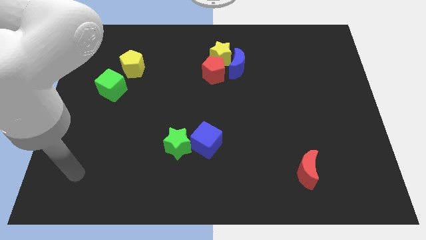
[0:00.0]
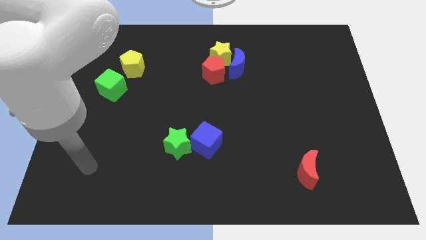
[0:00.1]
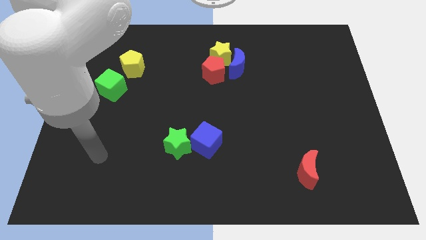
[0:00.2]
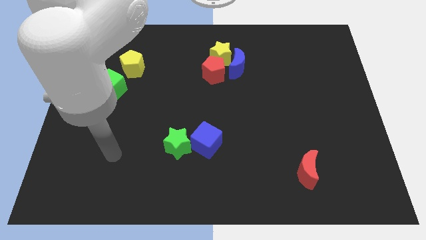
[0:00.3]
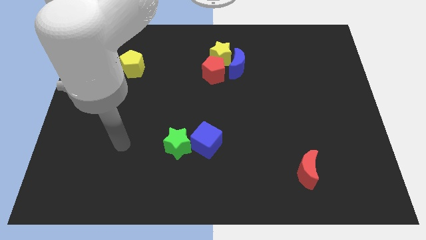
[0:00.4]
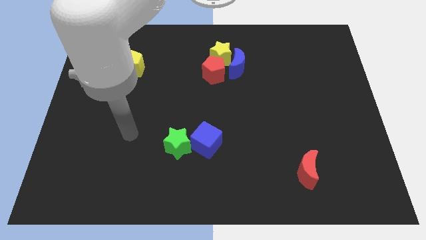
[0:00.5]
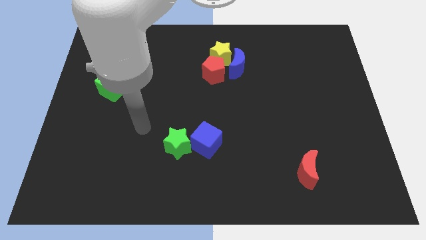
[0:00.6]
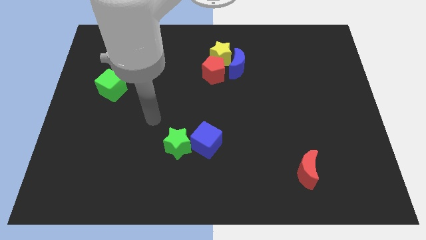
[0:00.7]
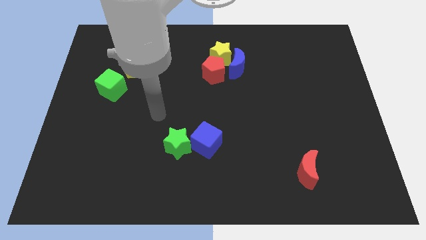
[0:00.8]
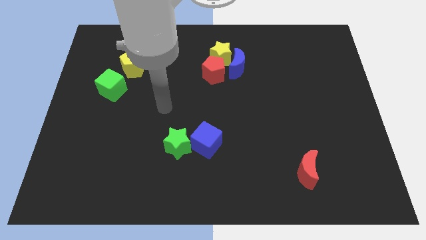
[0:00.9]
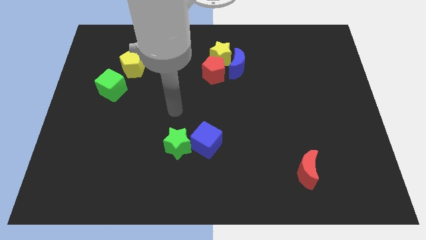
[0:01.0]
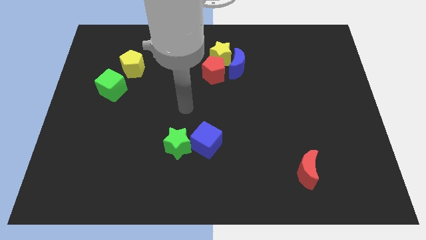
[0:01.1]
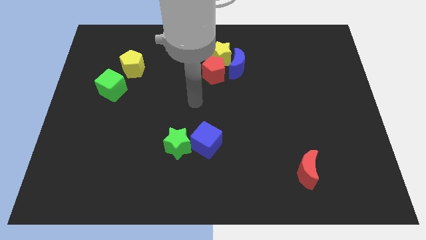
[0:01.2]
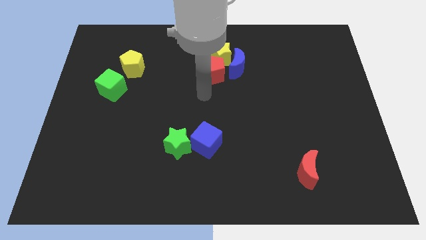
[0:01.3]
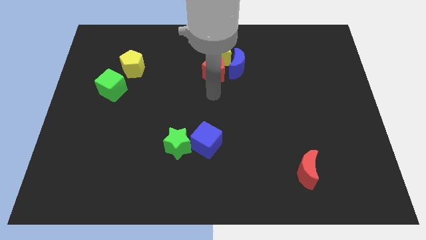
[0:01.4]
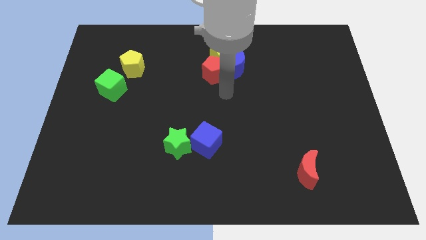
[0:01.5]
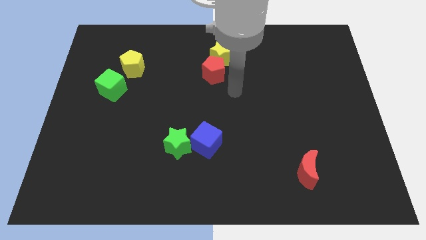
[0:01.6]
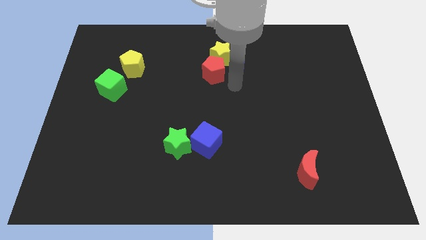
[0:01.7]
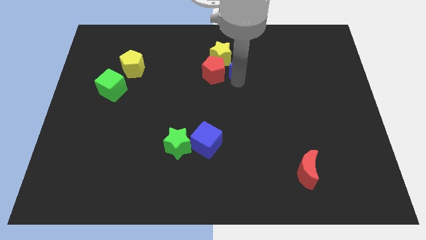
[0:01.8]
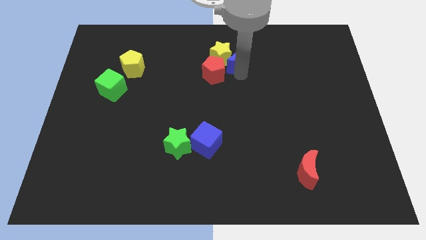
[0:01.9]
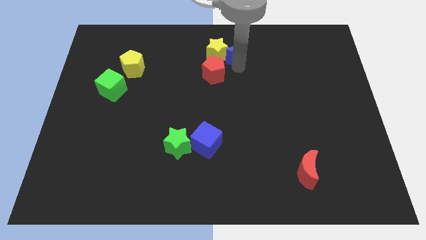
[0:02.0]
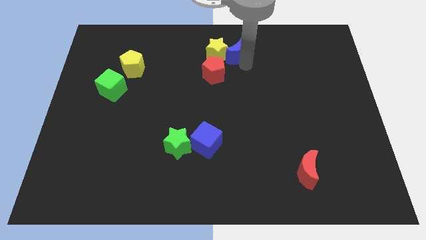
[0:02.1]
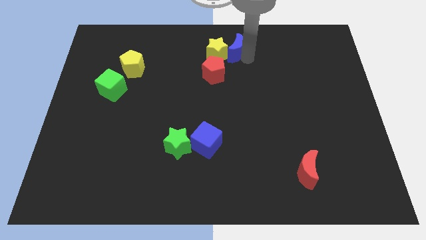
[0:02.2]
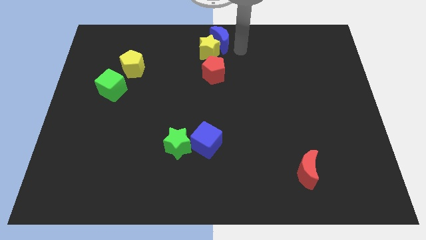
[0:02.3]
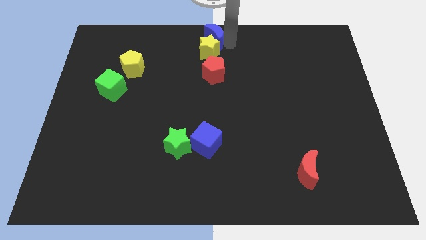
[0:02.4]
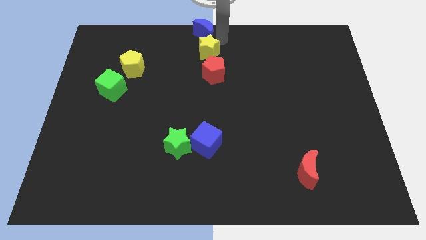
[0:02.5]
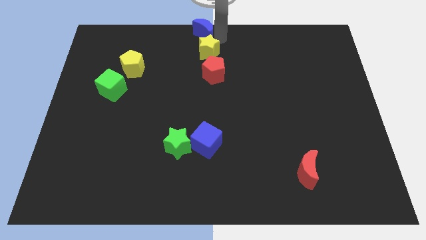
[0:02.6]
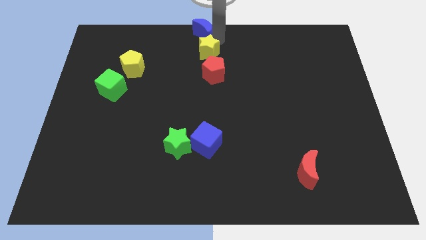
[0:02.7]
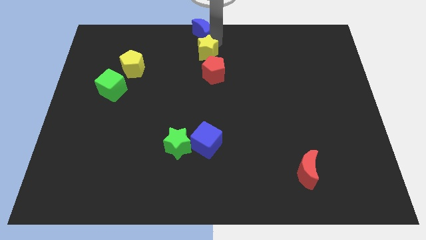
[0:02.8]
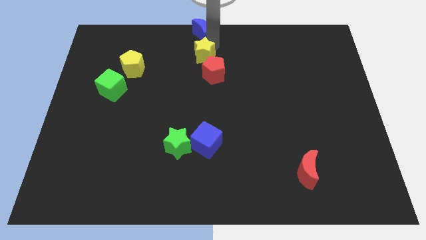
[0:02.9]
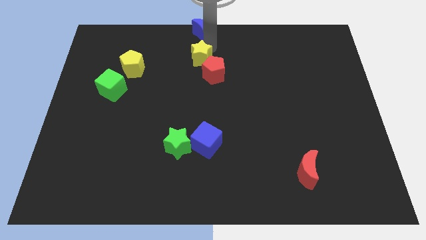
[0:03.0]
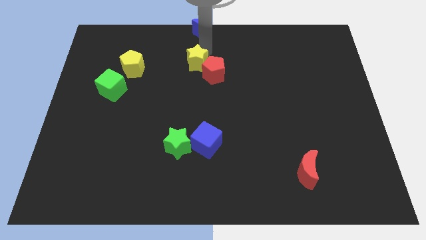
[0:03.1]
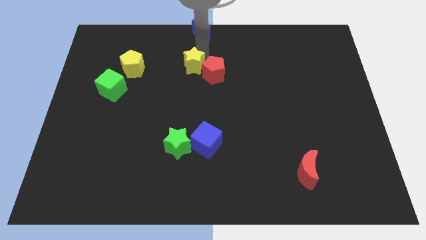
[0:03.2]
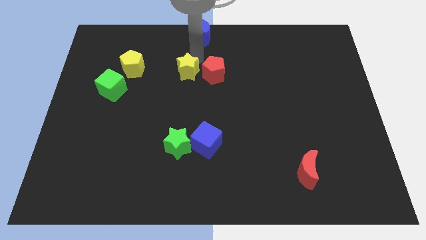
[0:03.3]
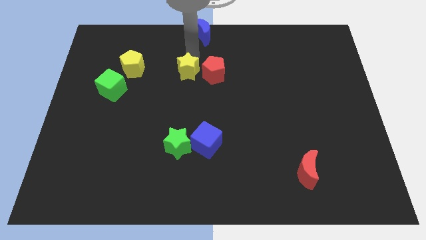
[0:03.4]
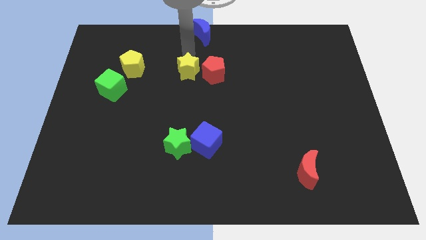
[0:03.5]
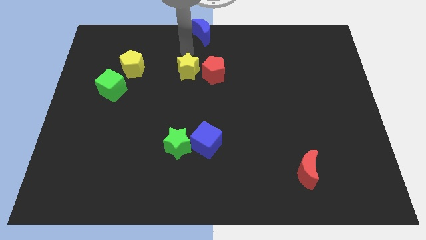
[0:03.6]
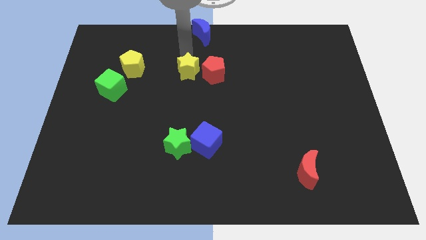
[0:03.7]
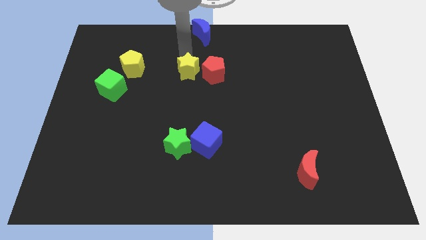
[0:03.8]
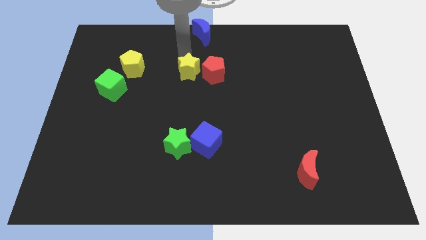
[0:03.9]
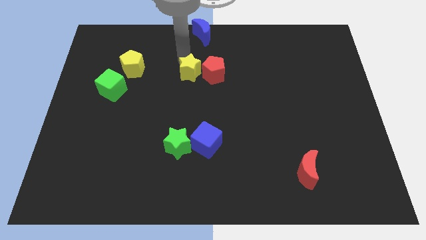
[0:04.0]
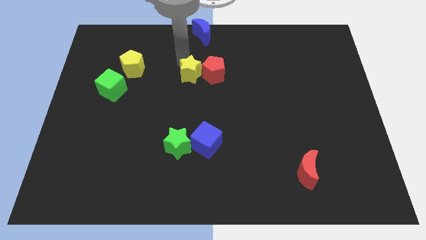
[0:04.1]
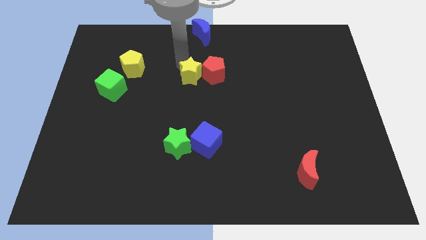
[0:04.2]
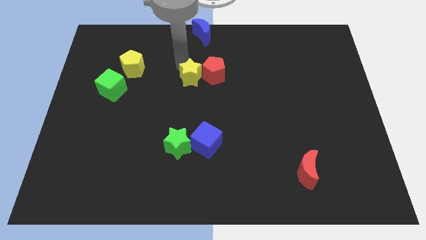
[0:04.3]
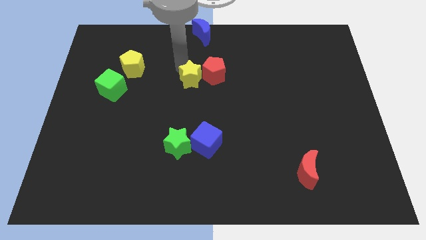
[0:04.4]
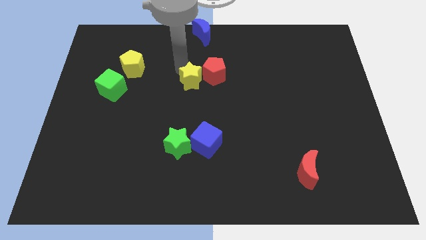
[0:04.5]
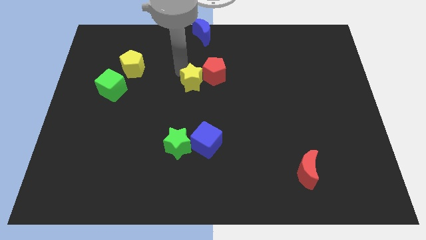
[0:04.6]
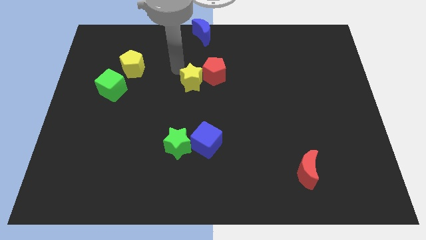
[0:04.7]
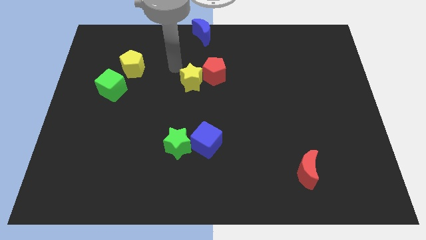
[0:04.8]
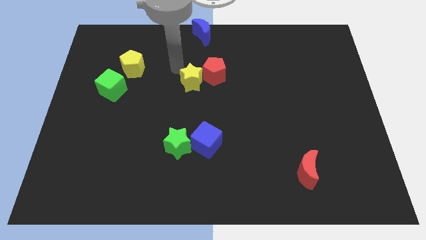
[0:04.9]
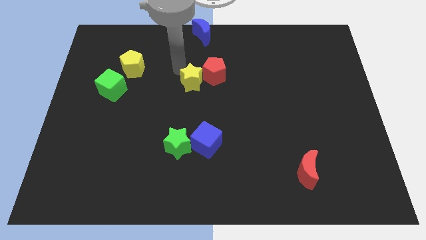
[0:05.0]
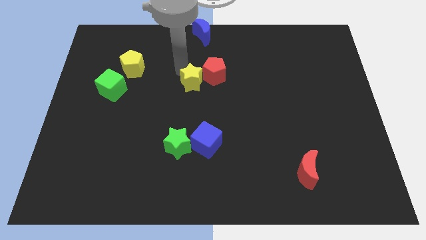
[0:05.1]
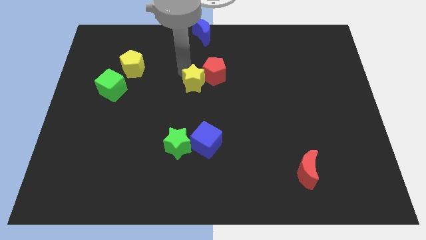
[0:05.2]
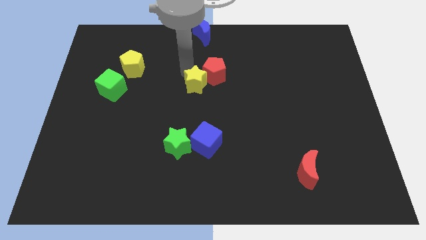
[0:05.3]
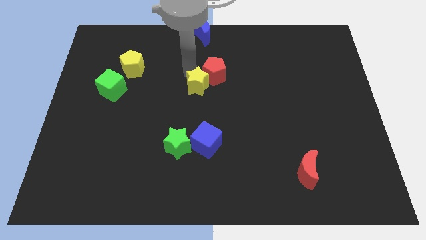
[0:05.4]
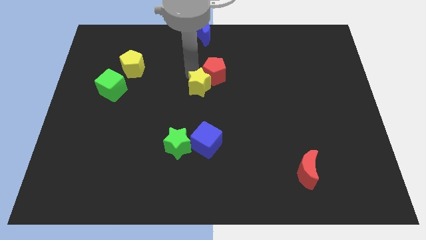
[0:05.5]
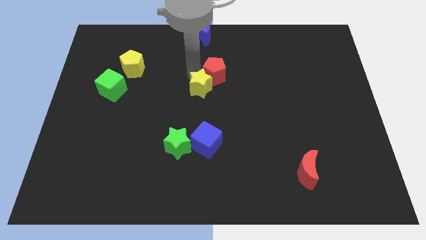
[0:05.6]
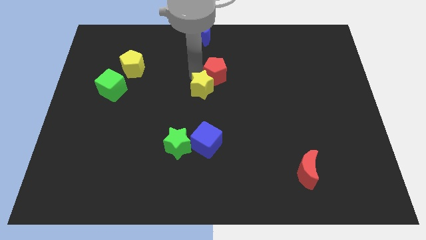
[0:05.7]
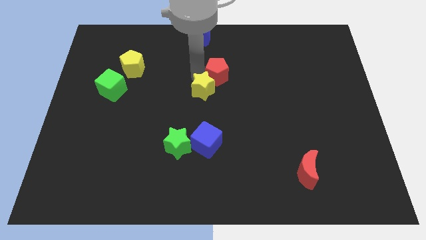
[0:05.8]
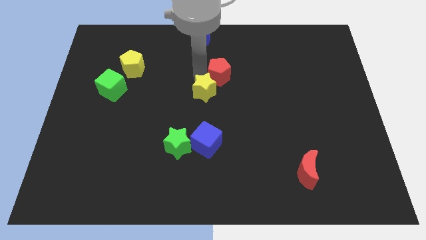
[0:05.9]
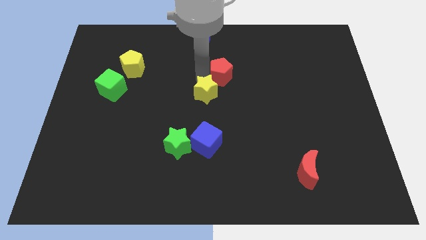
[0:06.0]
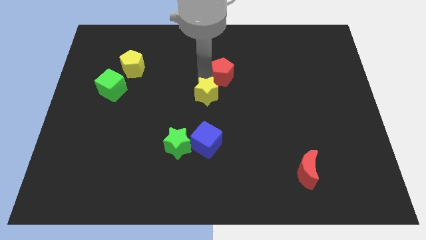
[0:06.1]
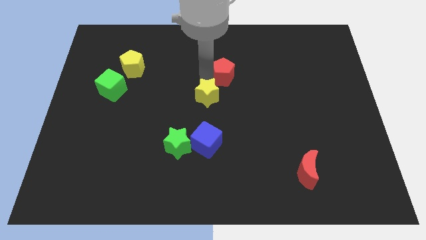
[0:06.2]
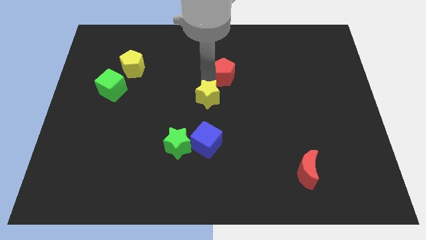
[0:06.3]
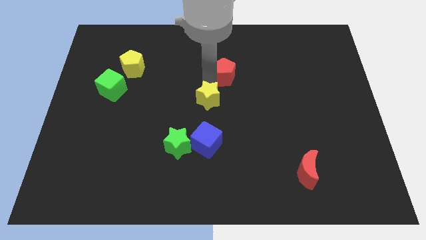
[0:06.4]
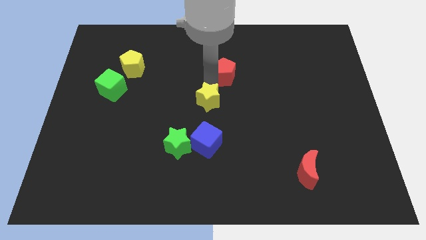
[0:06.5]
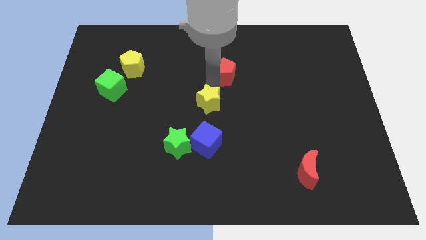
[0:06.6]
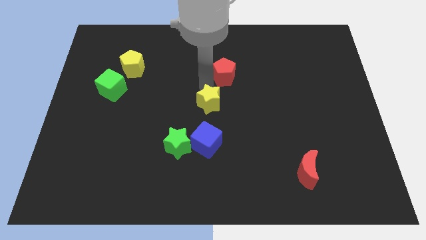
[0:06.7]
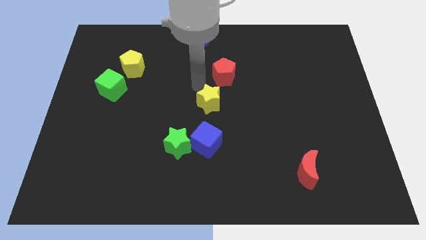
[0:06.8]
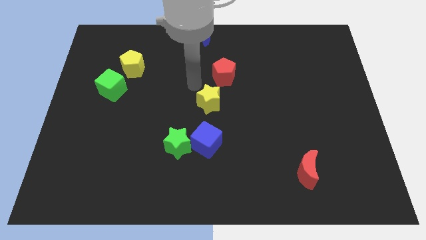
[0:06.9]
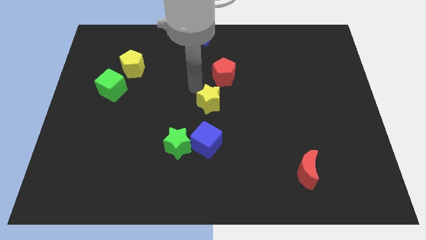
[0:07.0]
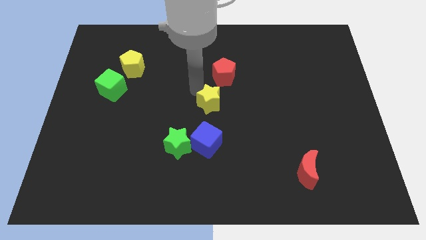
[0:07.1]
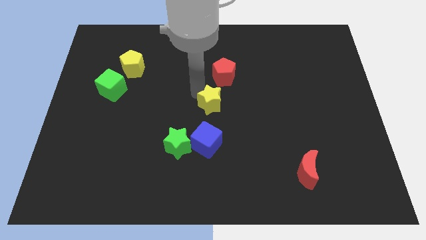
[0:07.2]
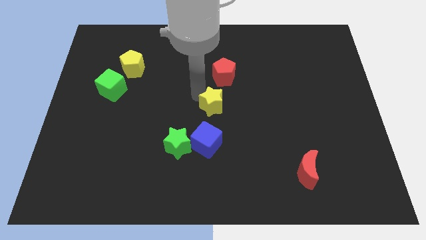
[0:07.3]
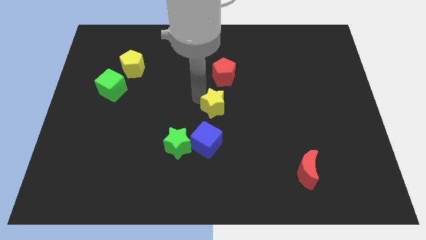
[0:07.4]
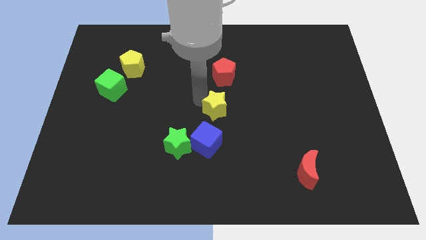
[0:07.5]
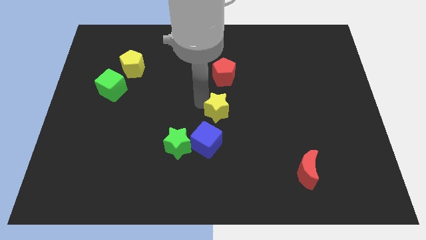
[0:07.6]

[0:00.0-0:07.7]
put the yellow star to the top right side of the blue cube
